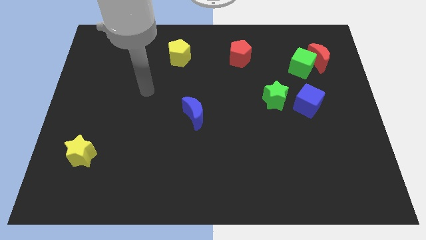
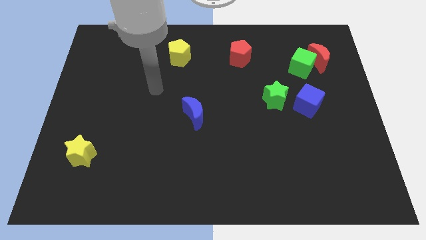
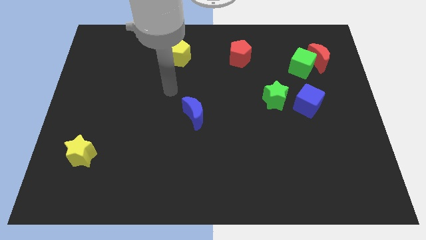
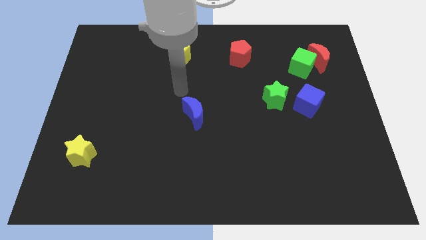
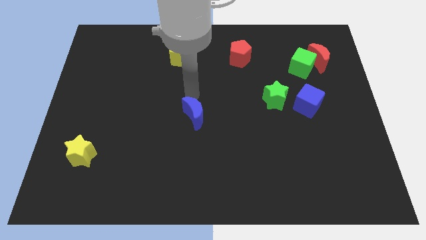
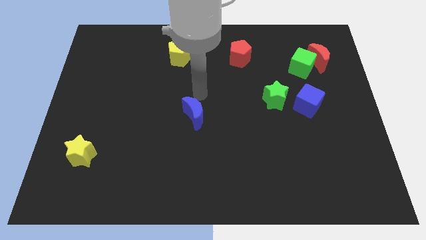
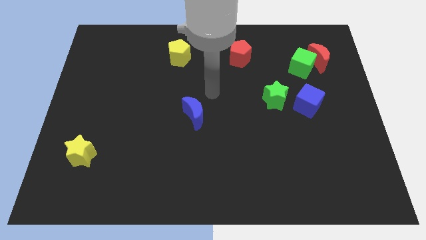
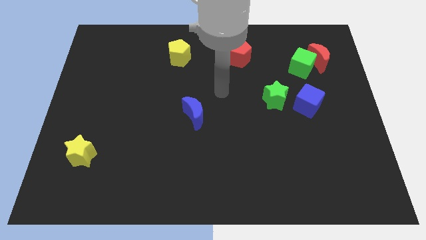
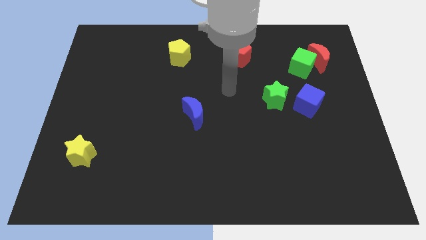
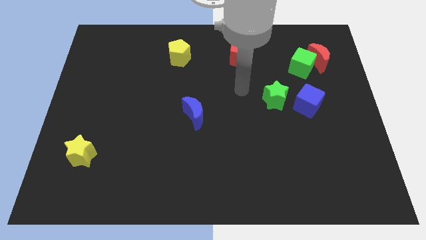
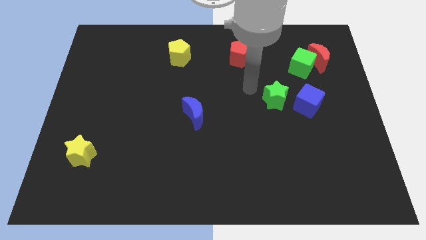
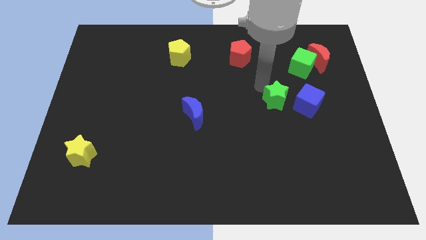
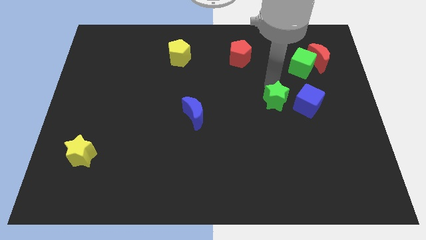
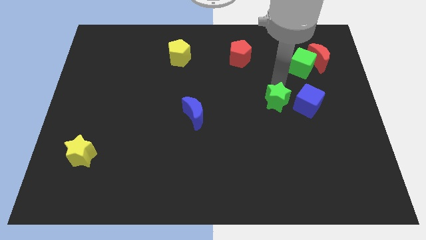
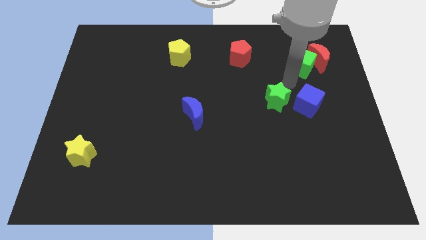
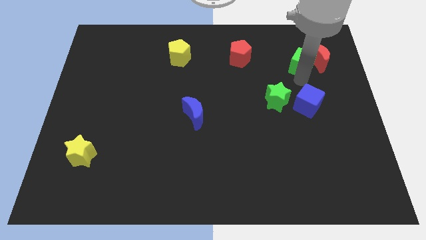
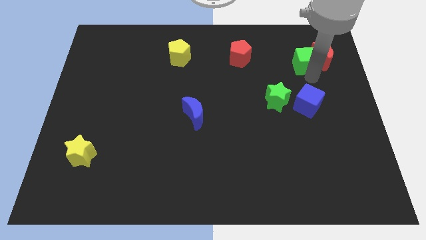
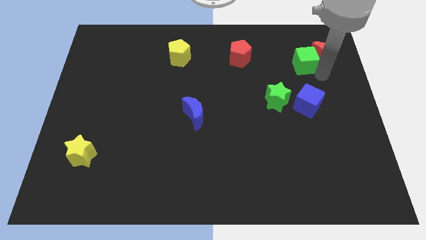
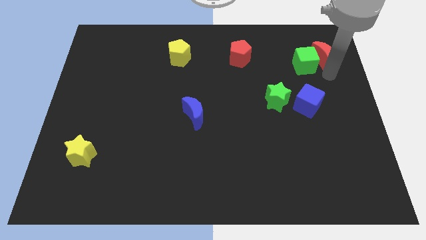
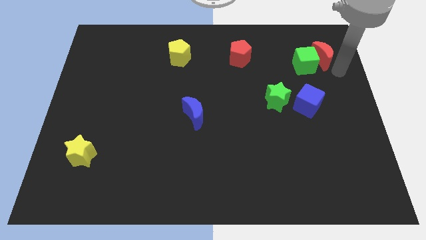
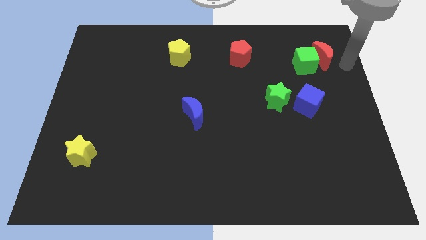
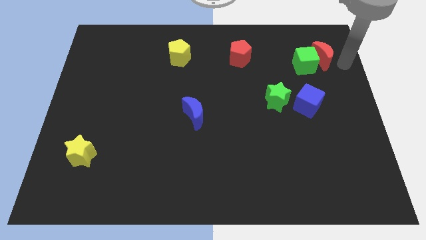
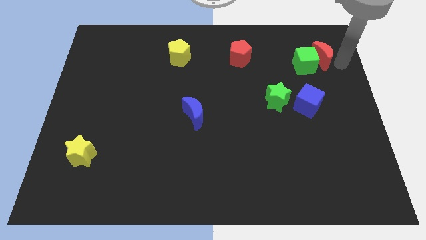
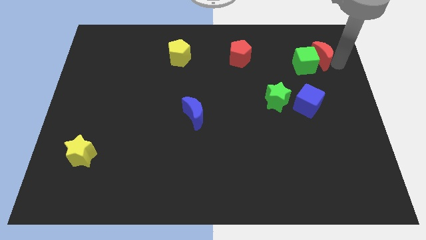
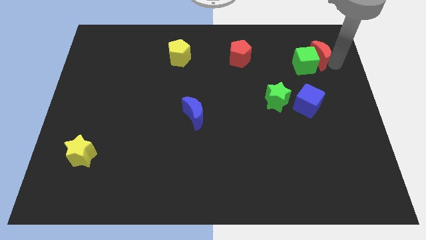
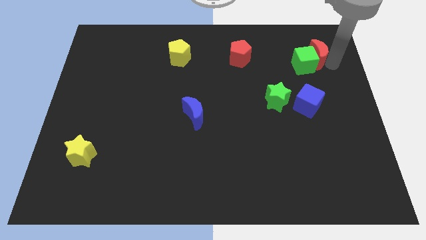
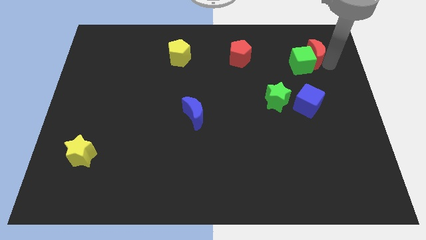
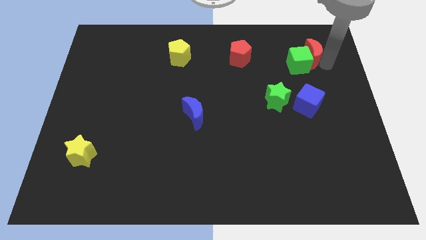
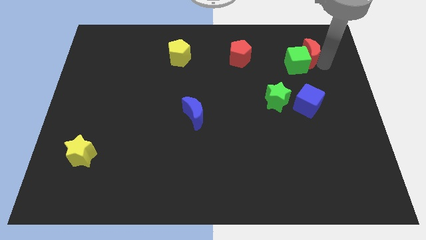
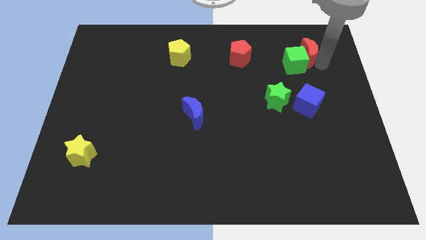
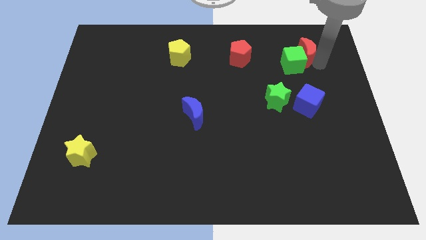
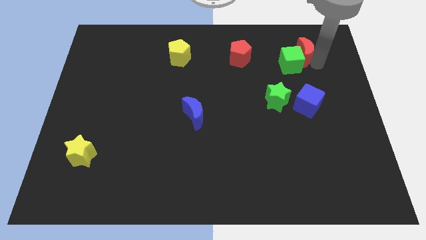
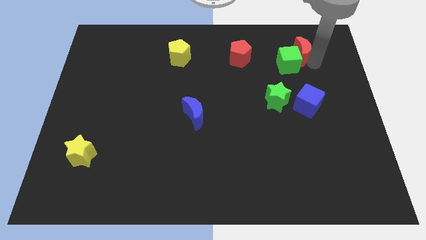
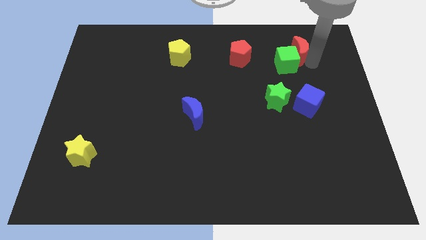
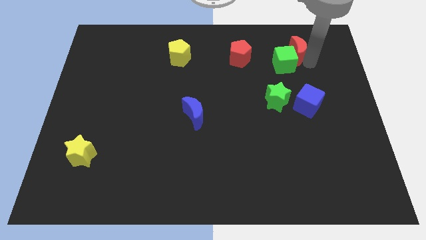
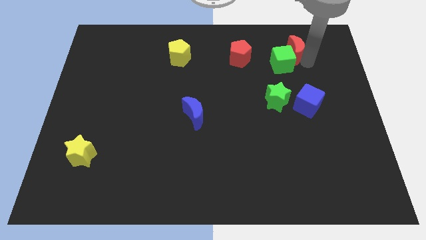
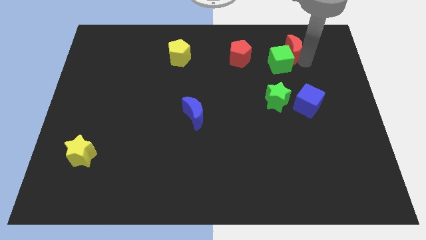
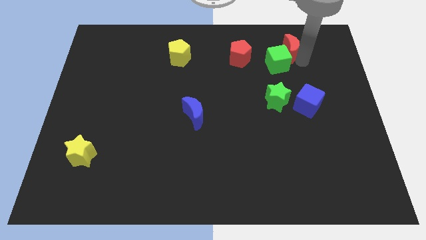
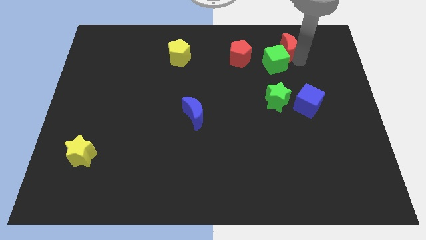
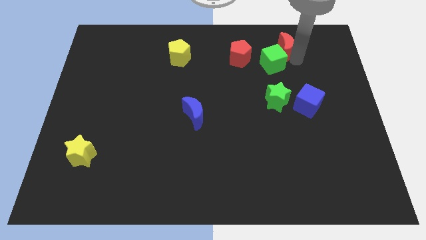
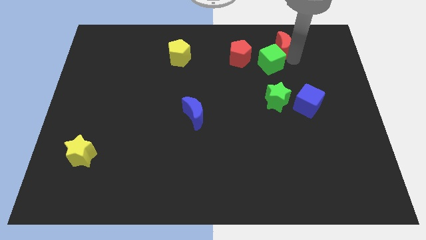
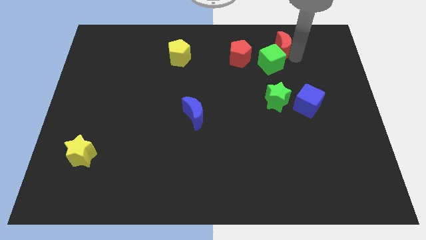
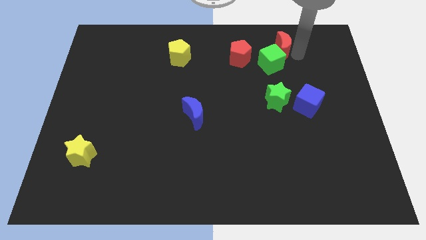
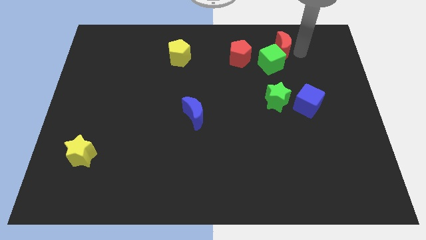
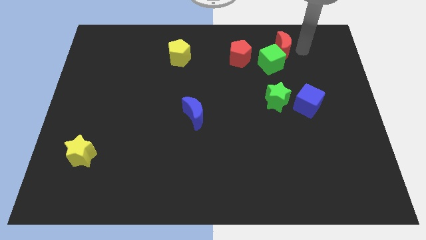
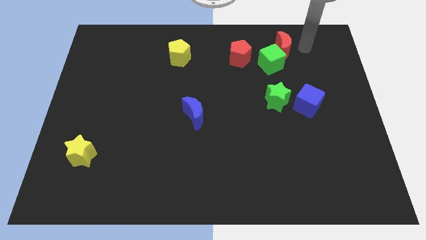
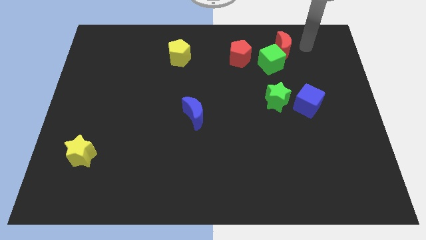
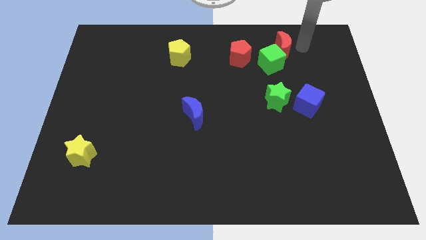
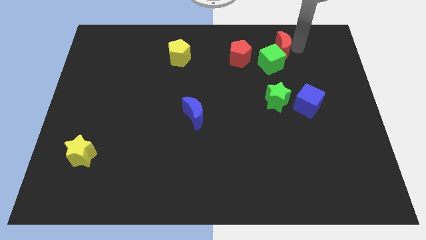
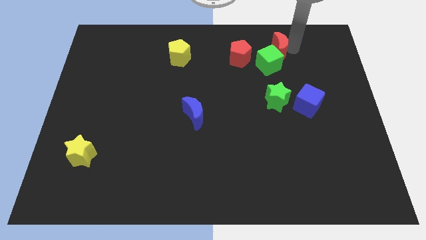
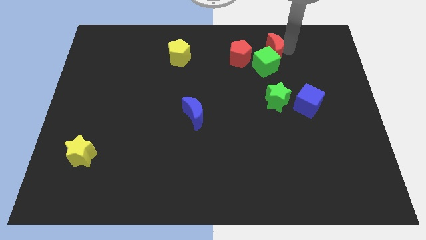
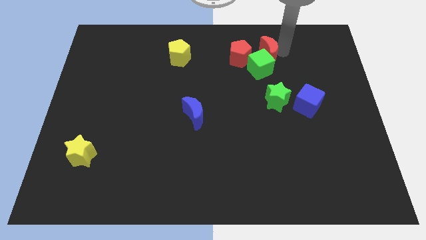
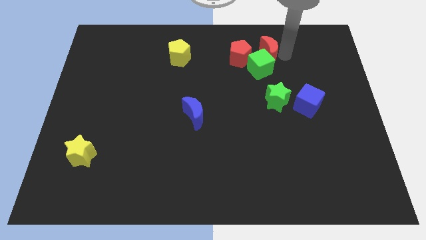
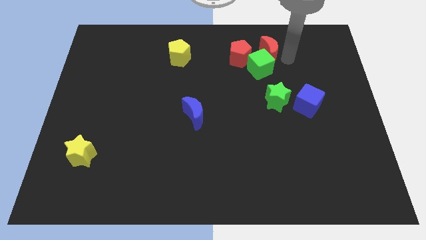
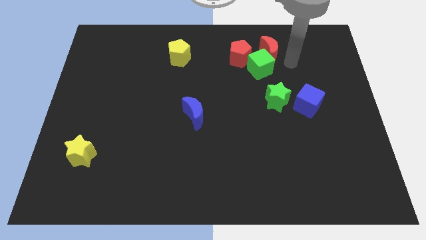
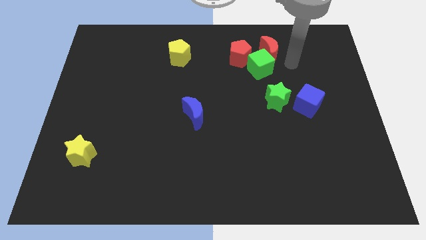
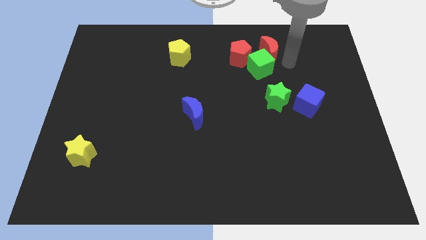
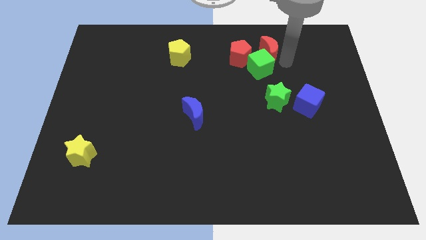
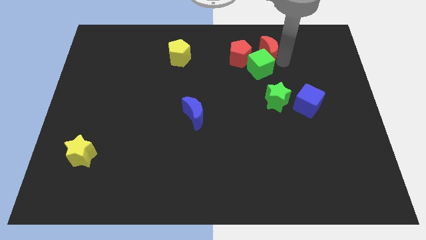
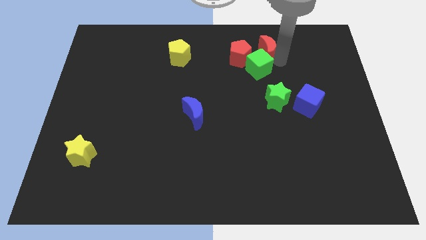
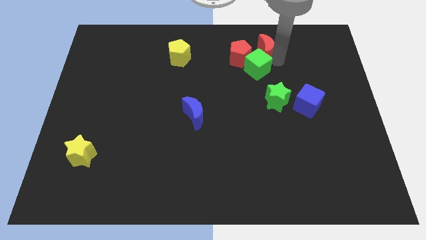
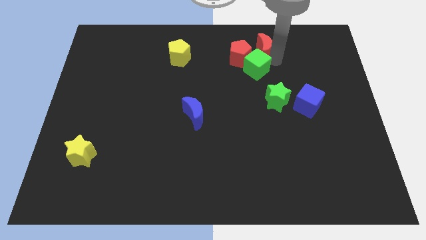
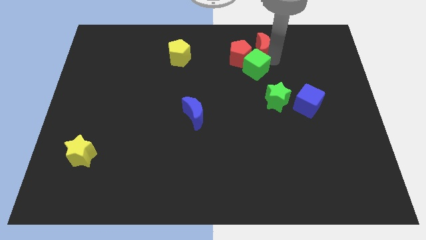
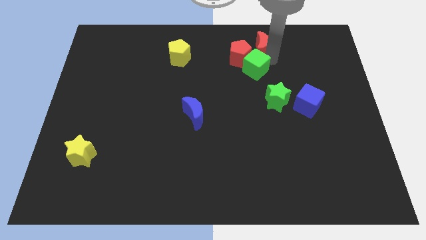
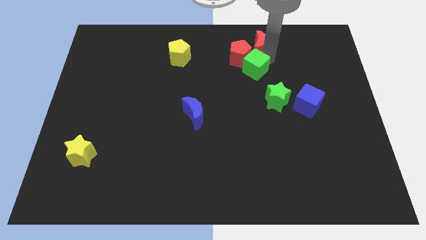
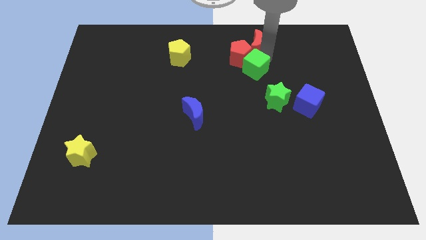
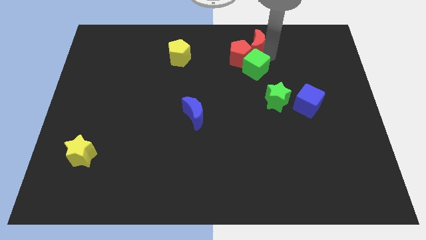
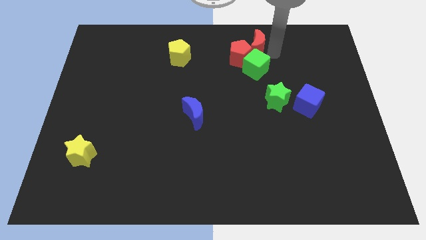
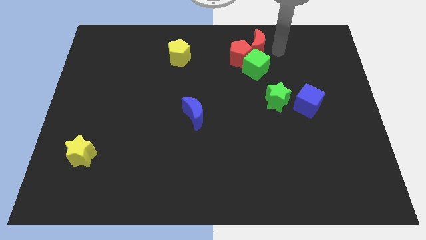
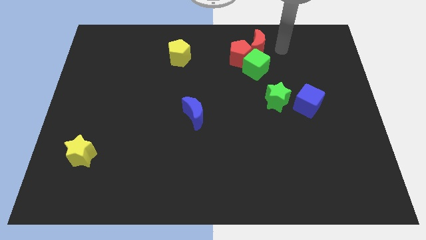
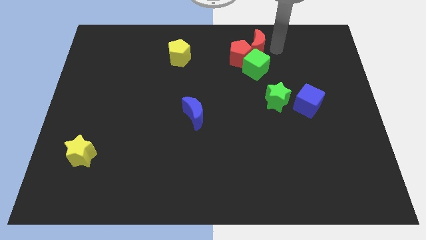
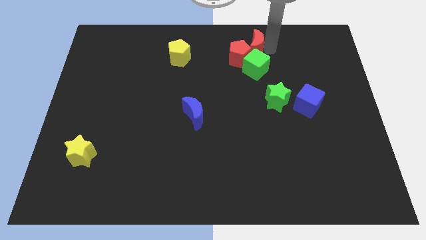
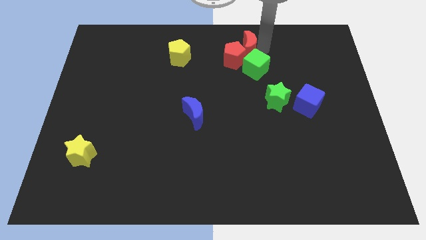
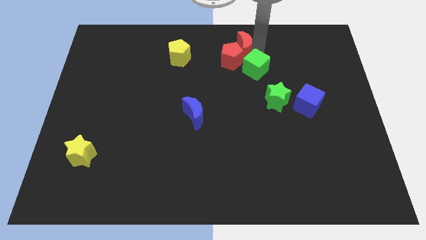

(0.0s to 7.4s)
push the red moon to the top side
